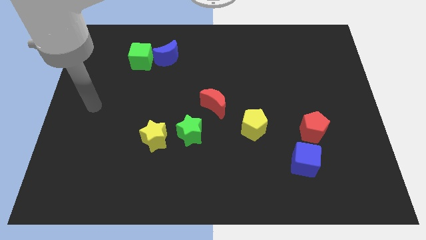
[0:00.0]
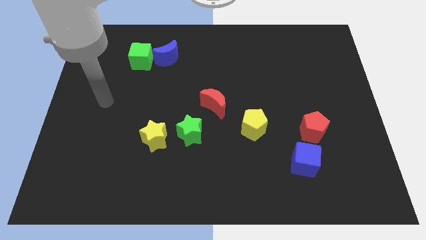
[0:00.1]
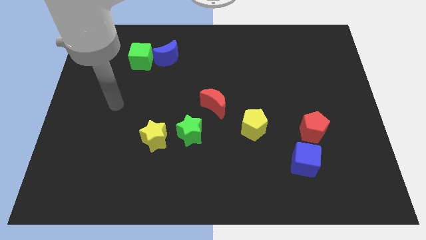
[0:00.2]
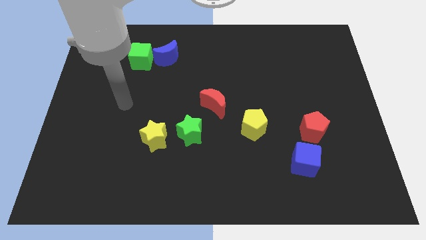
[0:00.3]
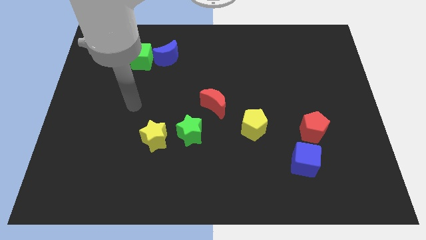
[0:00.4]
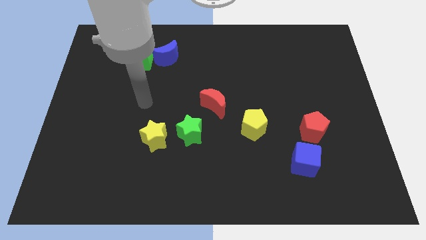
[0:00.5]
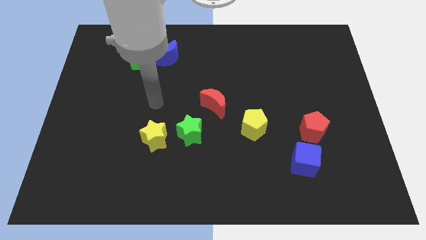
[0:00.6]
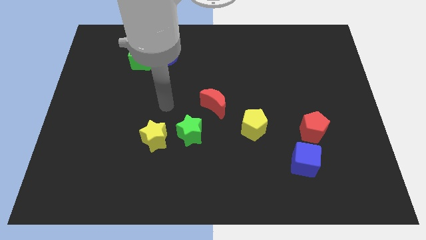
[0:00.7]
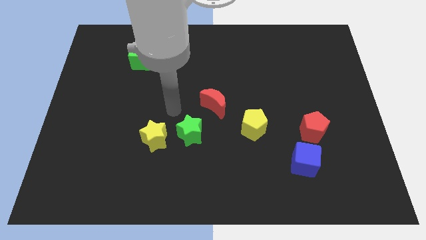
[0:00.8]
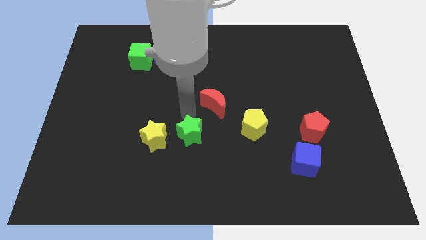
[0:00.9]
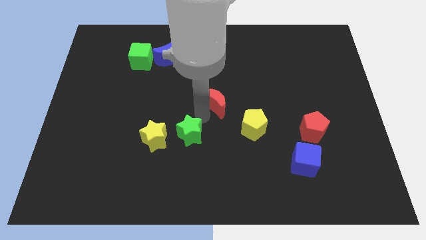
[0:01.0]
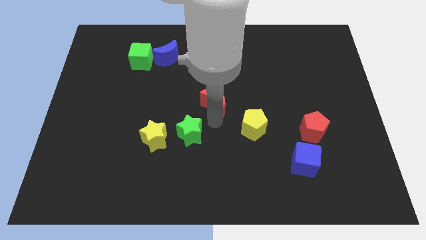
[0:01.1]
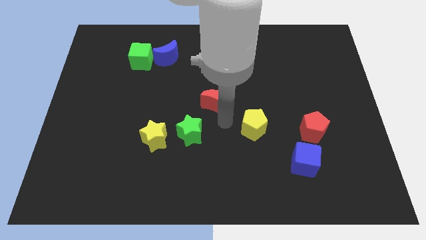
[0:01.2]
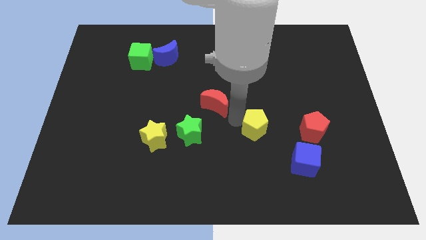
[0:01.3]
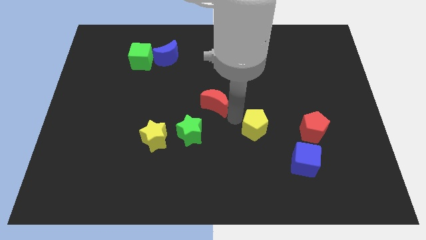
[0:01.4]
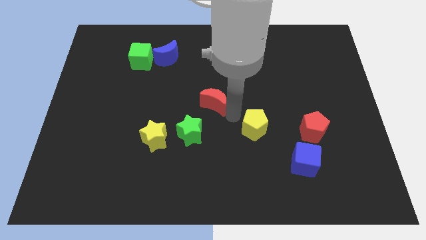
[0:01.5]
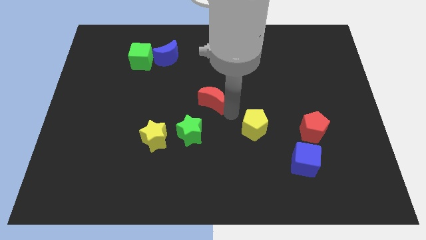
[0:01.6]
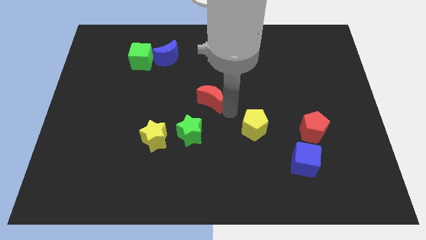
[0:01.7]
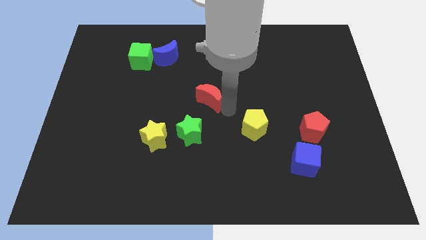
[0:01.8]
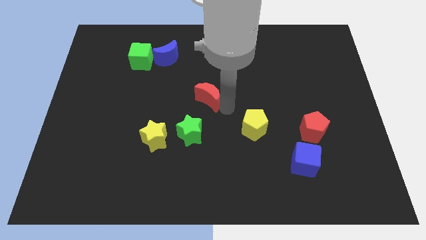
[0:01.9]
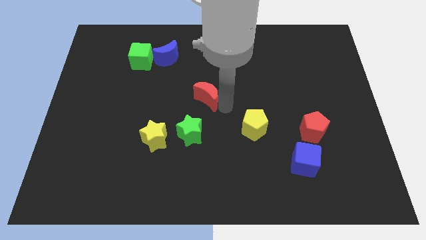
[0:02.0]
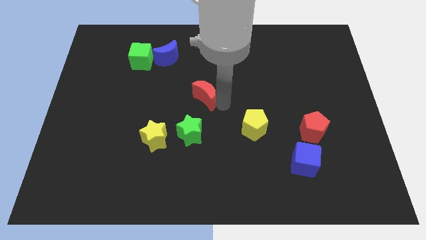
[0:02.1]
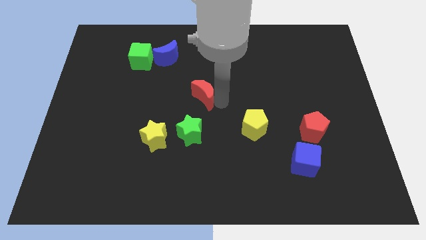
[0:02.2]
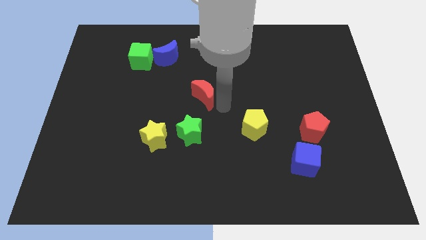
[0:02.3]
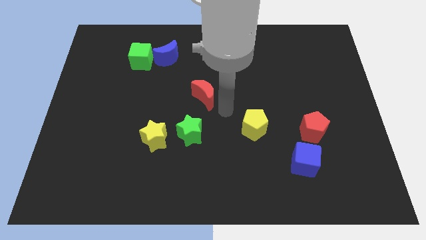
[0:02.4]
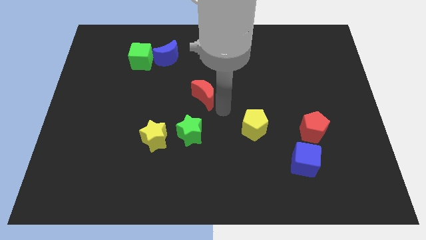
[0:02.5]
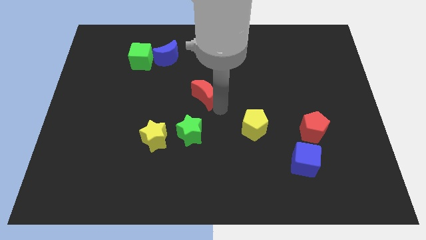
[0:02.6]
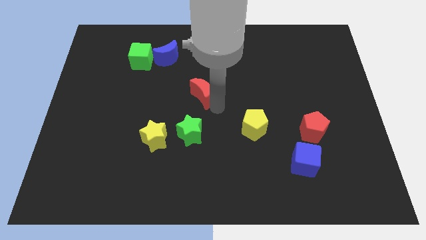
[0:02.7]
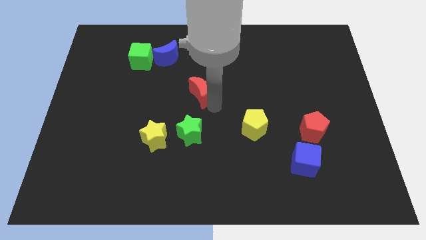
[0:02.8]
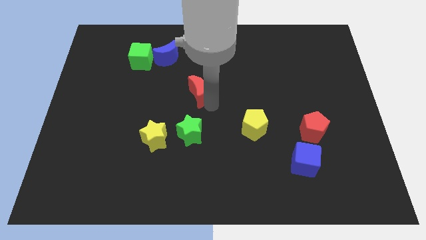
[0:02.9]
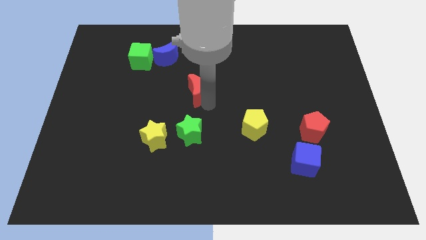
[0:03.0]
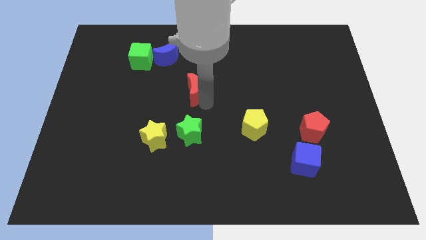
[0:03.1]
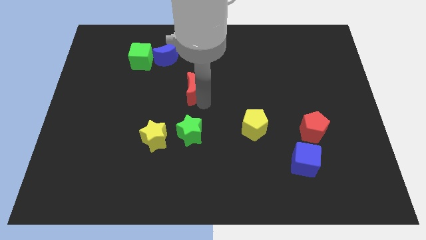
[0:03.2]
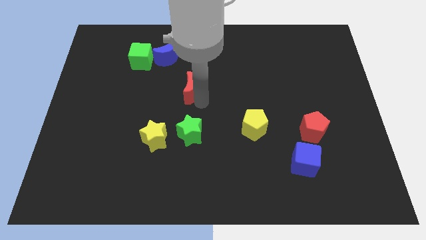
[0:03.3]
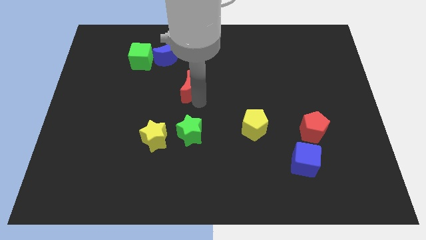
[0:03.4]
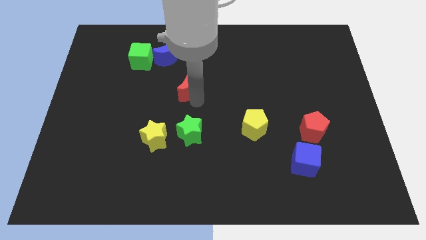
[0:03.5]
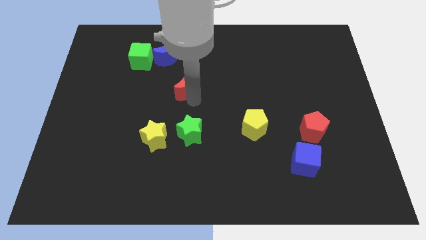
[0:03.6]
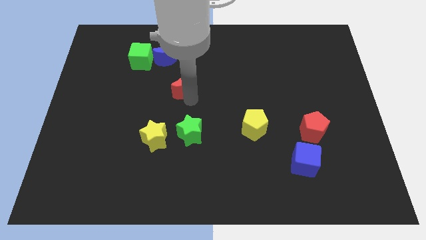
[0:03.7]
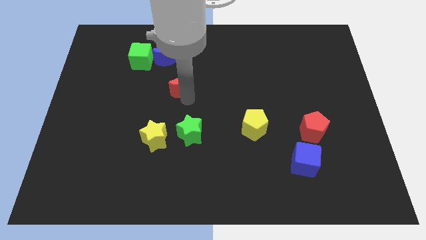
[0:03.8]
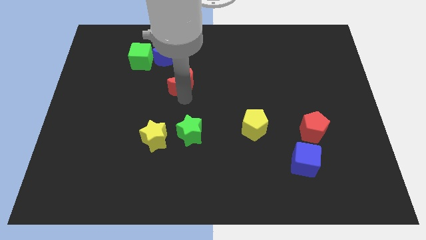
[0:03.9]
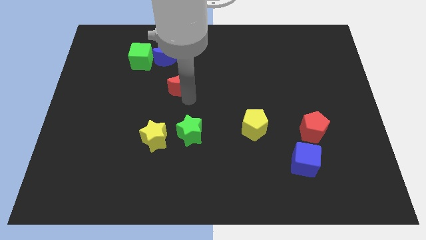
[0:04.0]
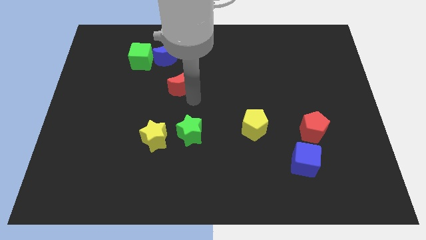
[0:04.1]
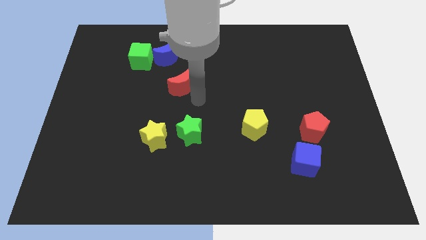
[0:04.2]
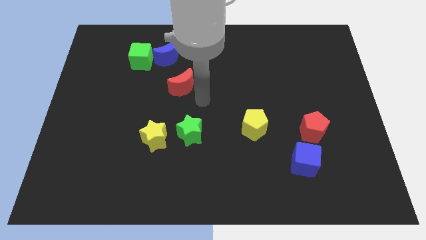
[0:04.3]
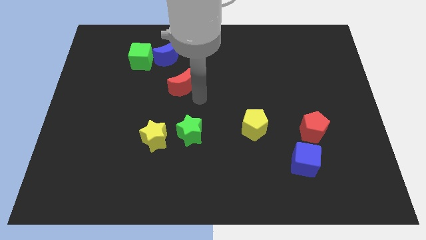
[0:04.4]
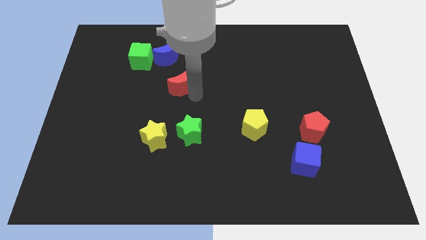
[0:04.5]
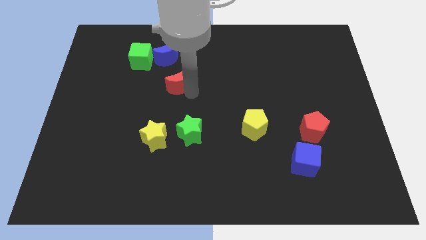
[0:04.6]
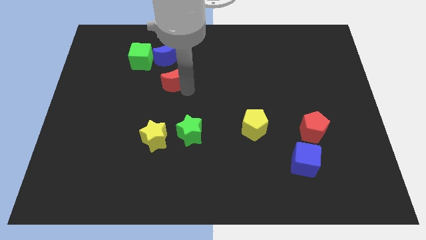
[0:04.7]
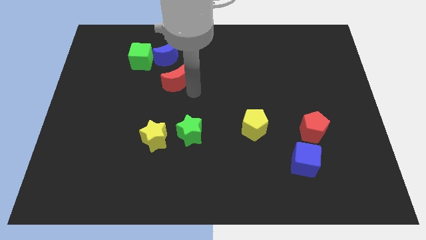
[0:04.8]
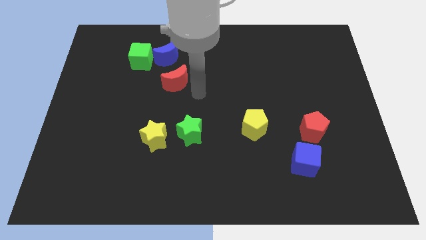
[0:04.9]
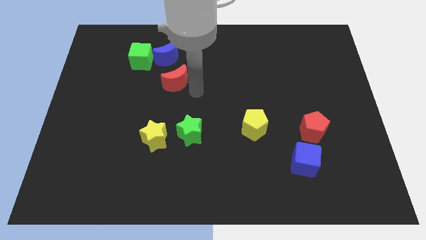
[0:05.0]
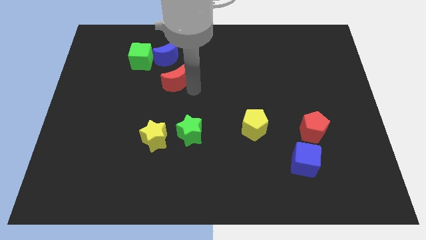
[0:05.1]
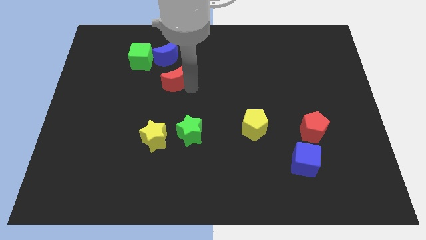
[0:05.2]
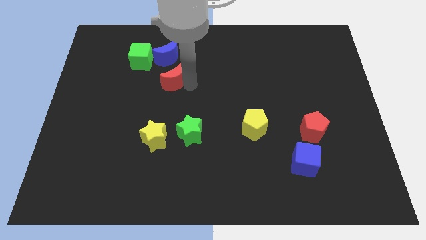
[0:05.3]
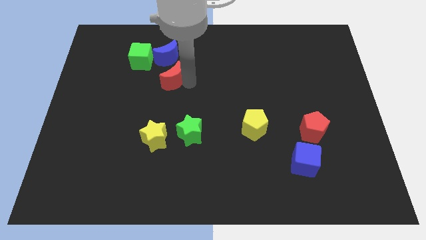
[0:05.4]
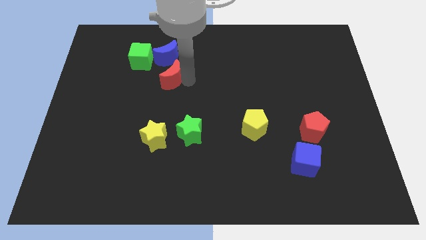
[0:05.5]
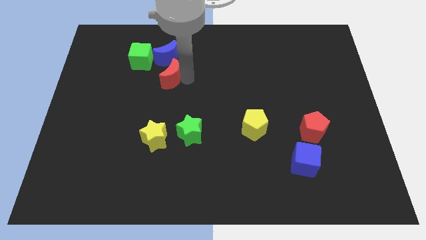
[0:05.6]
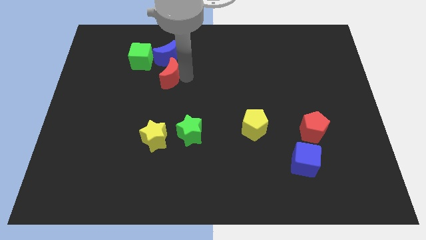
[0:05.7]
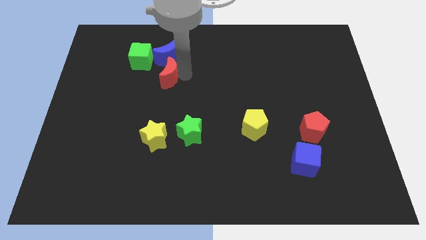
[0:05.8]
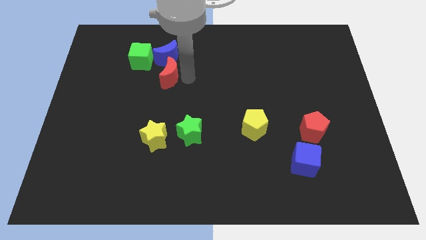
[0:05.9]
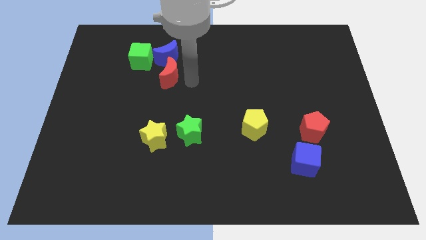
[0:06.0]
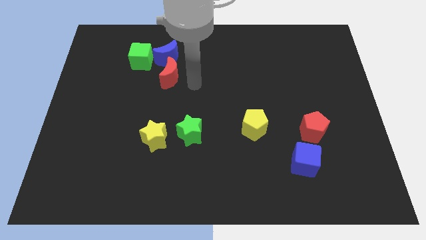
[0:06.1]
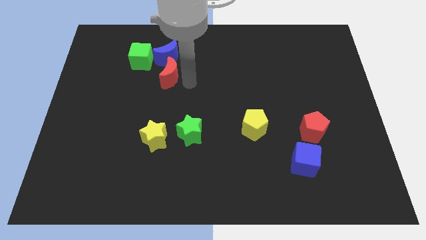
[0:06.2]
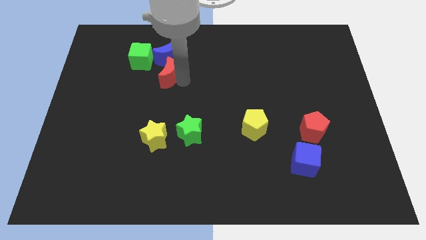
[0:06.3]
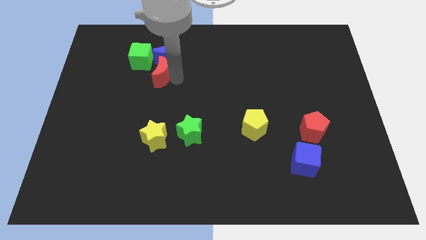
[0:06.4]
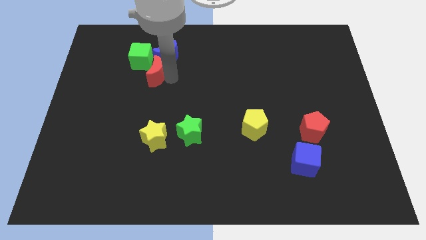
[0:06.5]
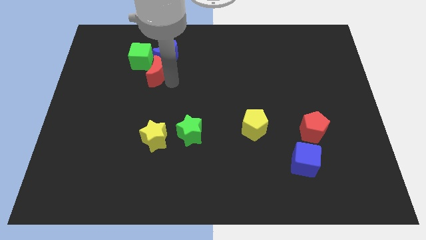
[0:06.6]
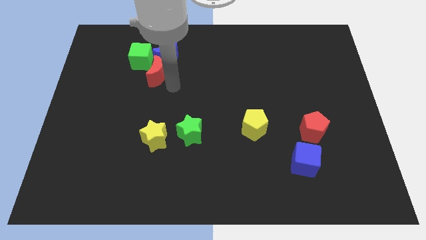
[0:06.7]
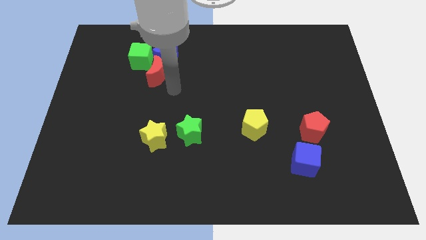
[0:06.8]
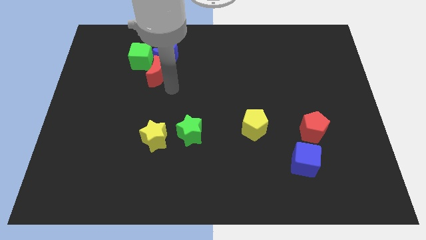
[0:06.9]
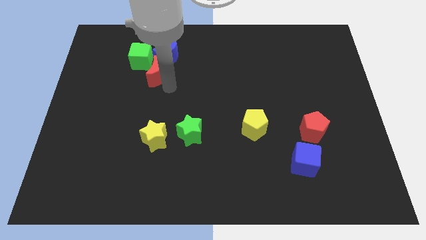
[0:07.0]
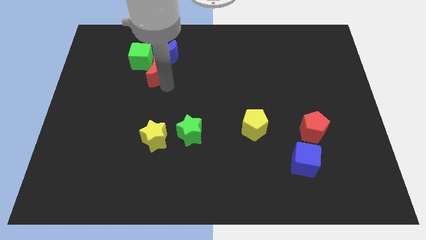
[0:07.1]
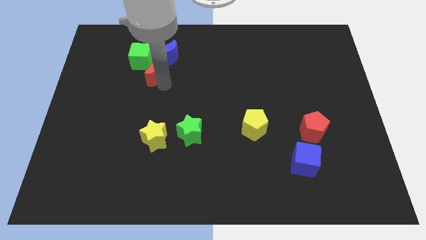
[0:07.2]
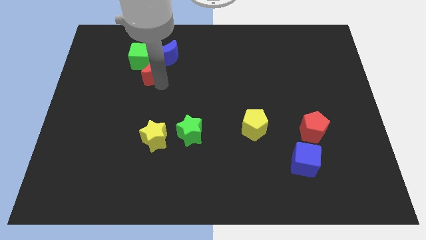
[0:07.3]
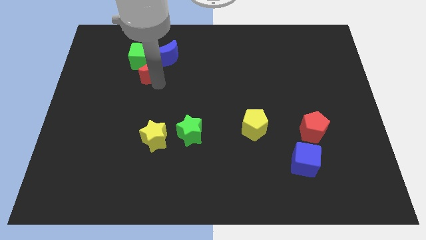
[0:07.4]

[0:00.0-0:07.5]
move the red moon towards the green cube
